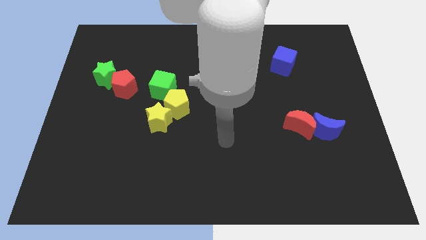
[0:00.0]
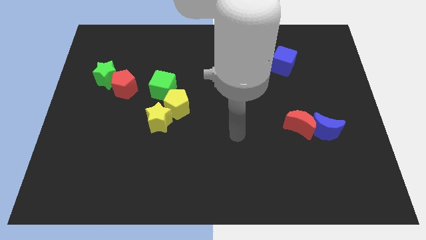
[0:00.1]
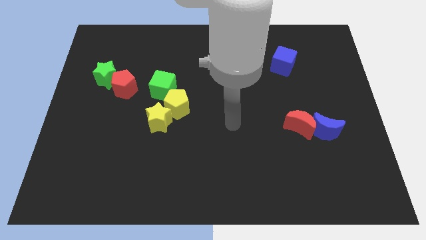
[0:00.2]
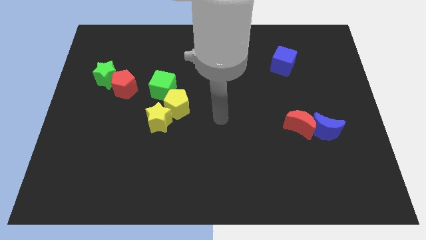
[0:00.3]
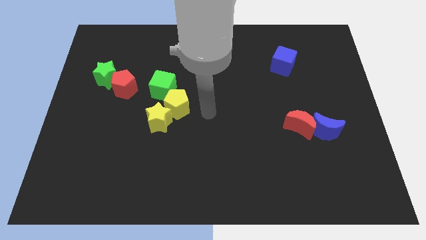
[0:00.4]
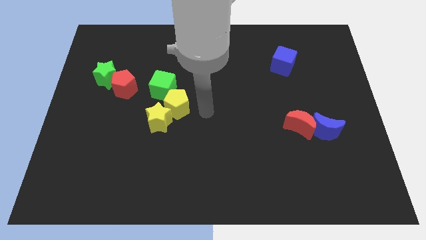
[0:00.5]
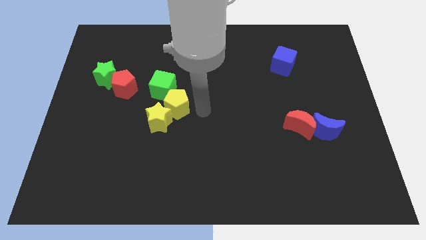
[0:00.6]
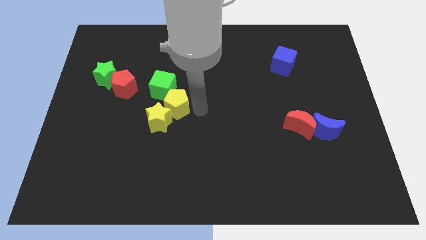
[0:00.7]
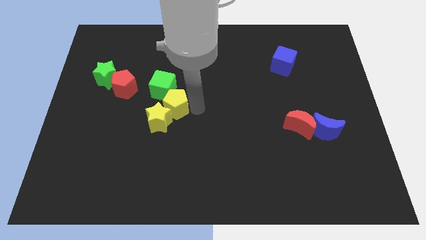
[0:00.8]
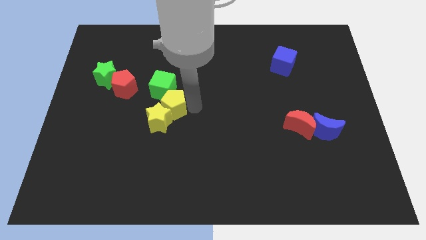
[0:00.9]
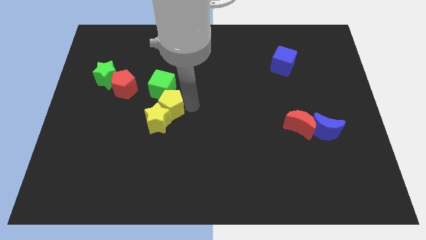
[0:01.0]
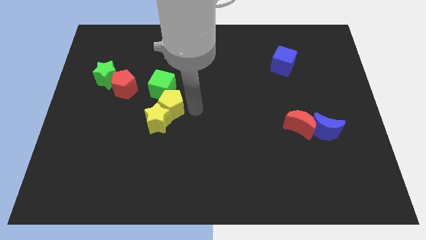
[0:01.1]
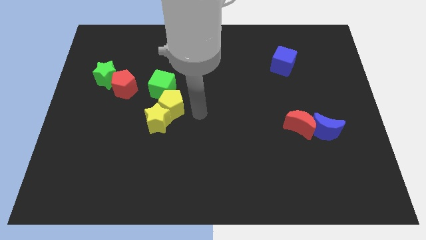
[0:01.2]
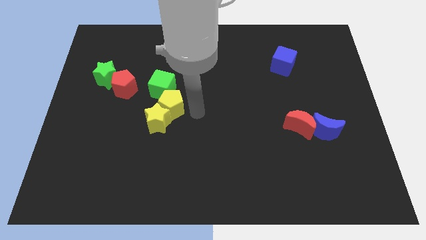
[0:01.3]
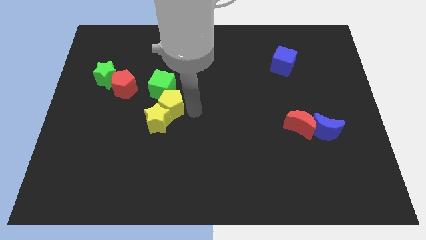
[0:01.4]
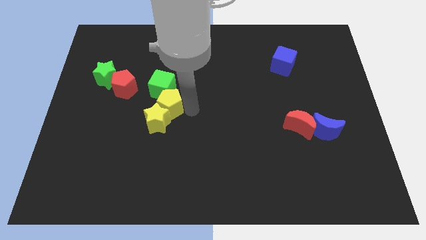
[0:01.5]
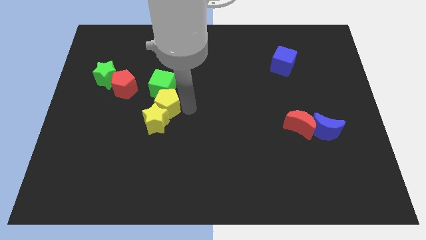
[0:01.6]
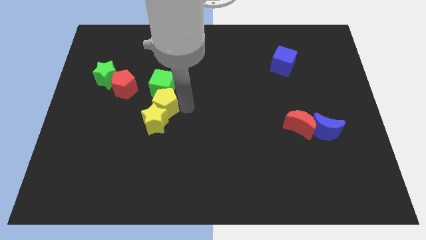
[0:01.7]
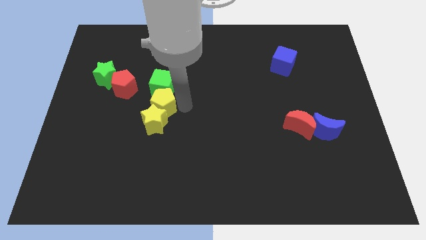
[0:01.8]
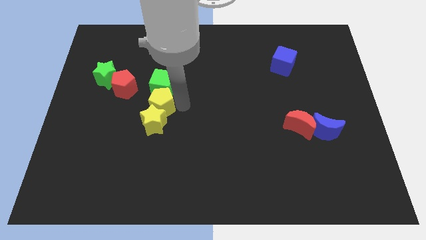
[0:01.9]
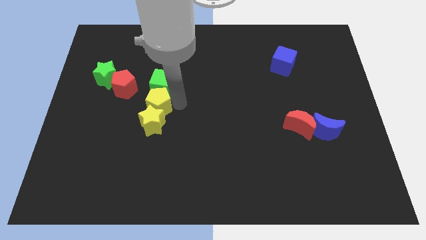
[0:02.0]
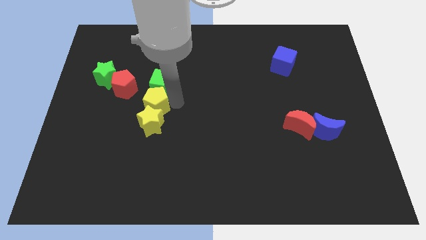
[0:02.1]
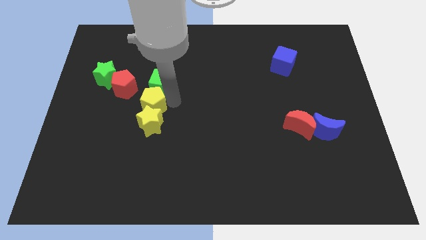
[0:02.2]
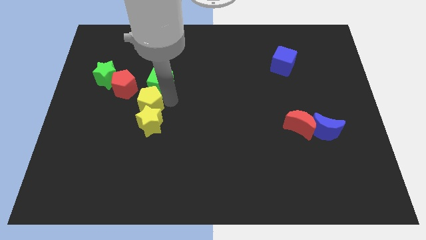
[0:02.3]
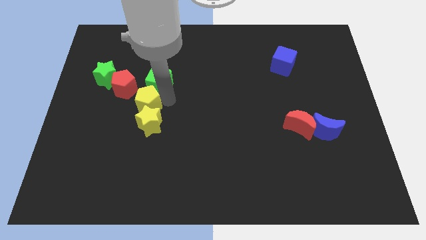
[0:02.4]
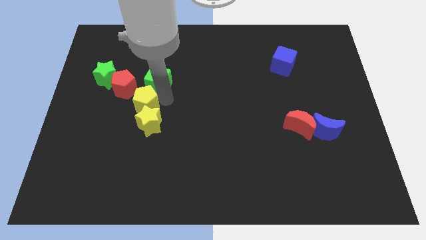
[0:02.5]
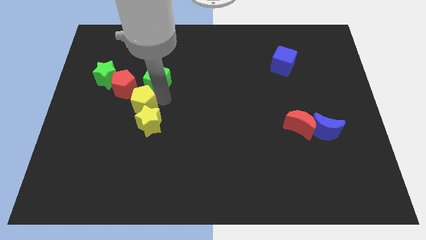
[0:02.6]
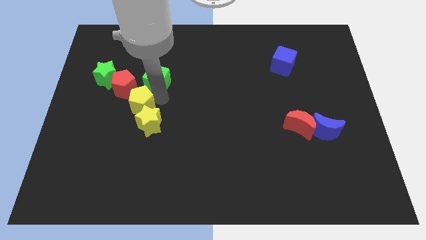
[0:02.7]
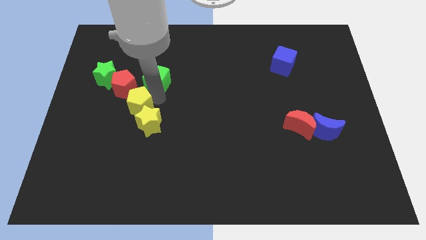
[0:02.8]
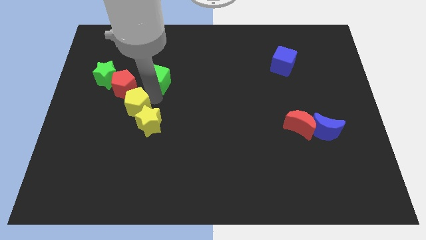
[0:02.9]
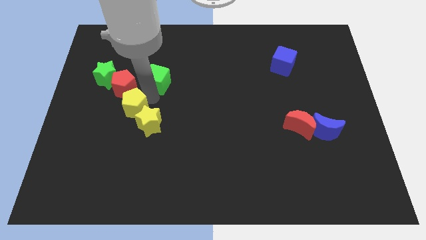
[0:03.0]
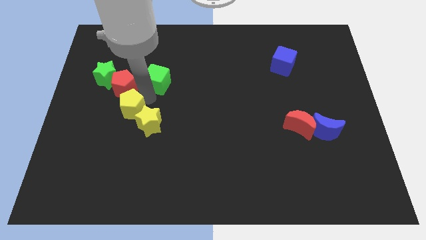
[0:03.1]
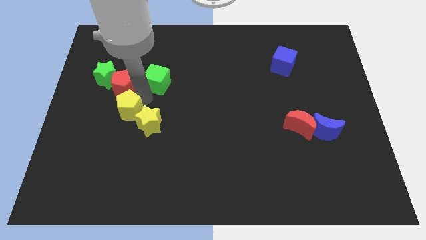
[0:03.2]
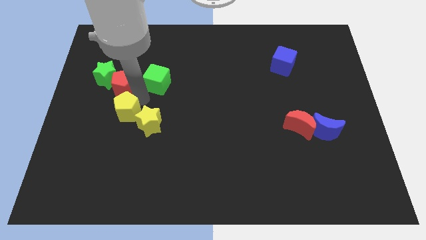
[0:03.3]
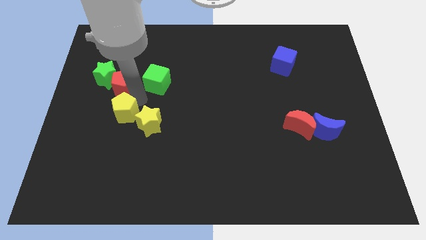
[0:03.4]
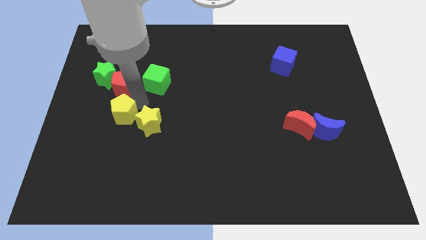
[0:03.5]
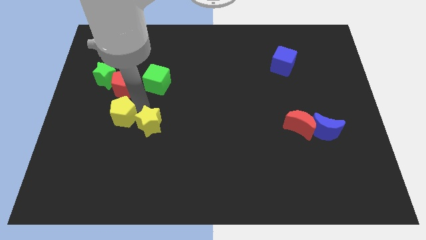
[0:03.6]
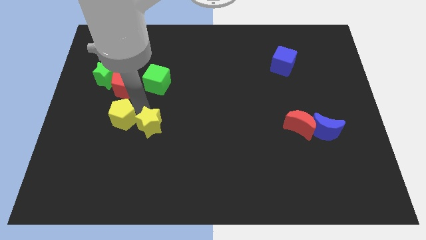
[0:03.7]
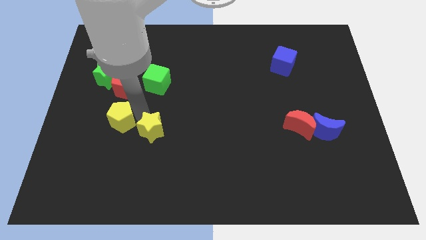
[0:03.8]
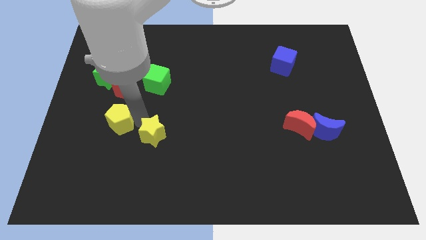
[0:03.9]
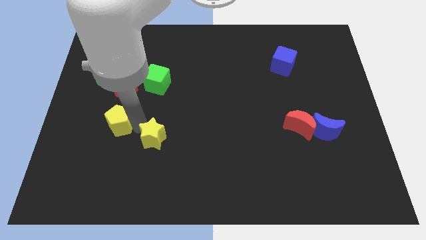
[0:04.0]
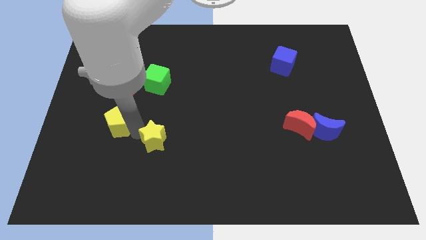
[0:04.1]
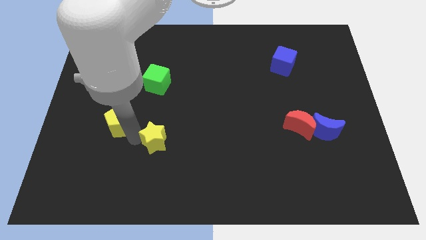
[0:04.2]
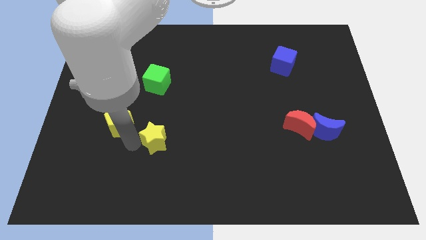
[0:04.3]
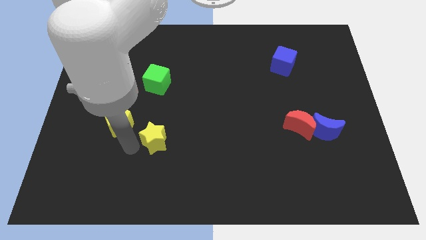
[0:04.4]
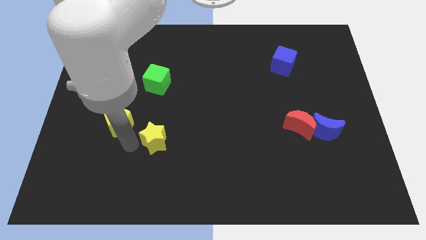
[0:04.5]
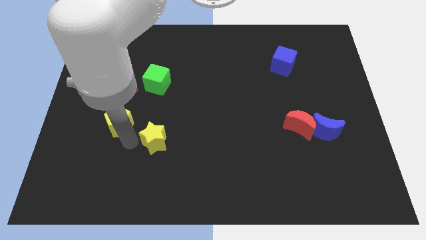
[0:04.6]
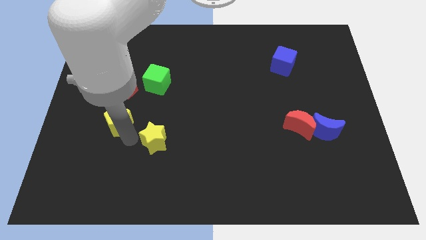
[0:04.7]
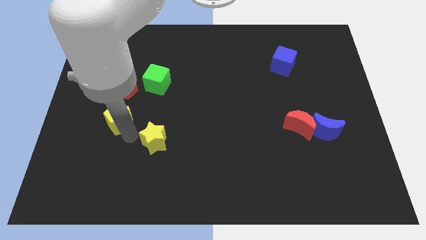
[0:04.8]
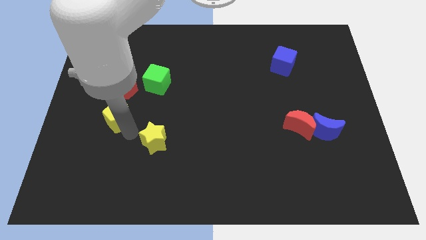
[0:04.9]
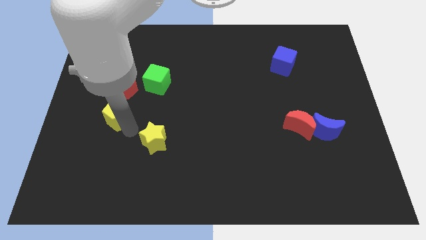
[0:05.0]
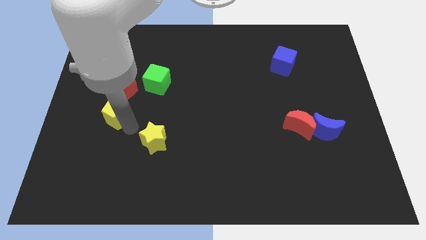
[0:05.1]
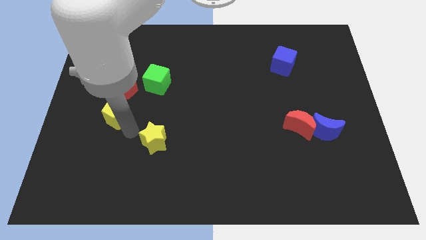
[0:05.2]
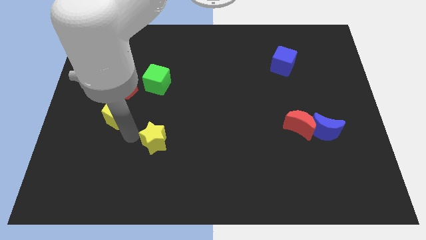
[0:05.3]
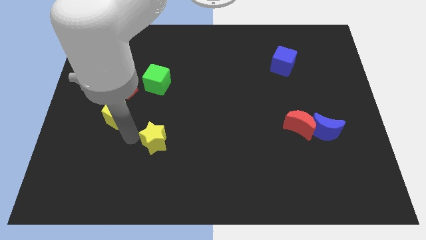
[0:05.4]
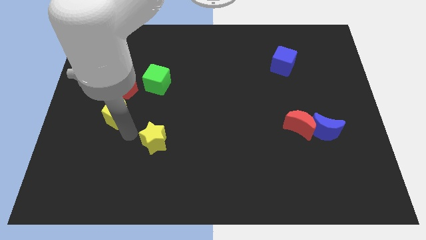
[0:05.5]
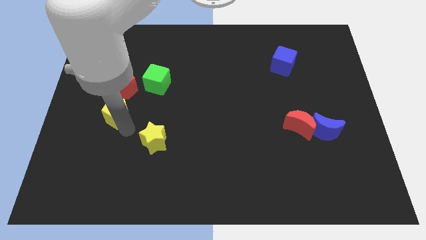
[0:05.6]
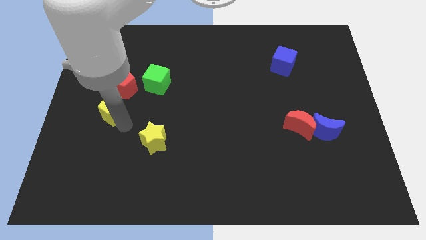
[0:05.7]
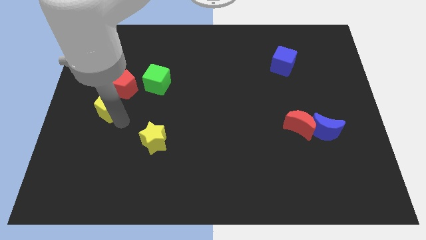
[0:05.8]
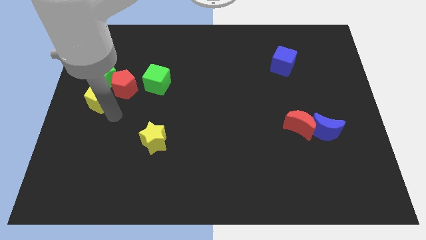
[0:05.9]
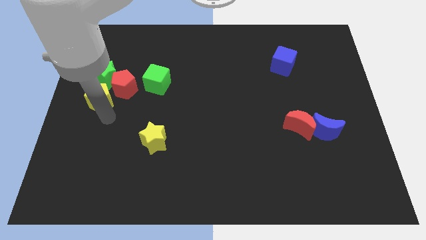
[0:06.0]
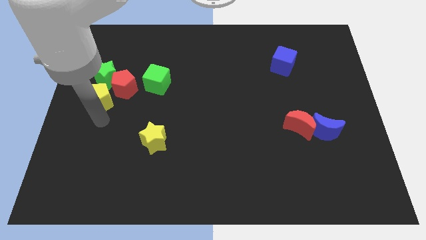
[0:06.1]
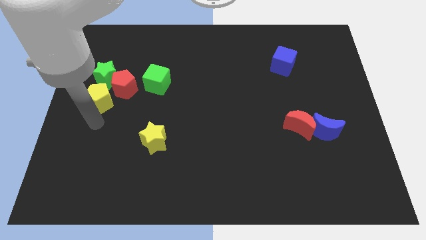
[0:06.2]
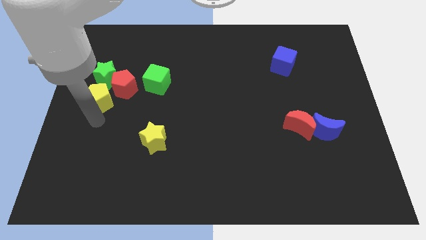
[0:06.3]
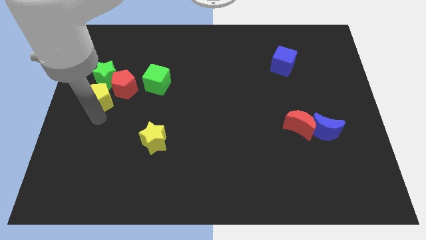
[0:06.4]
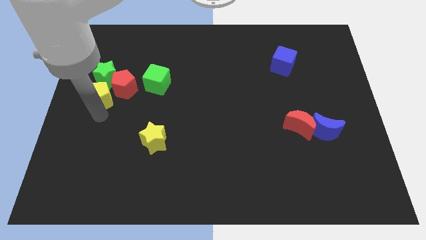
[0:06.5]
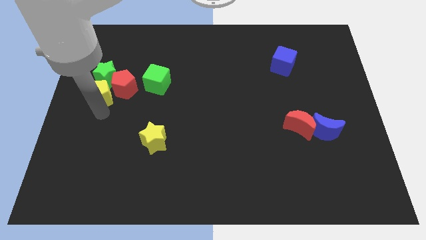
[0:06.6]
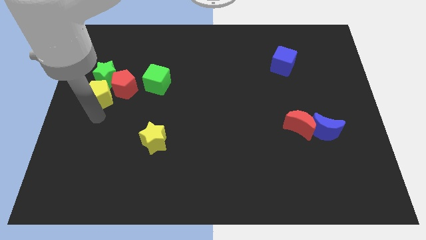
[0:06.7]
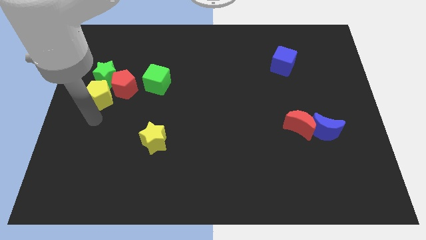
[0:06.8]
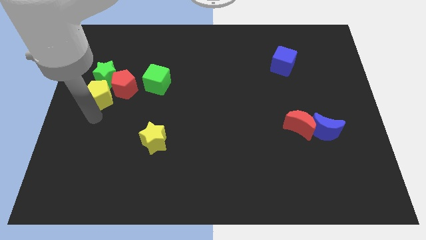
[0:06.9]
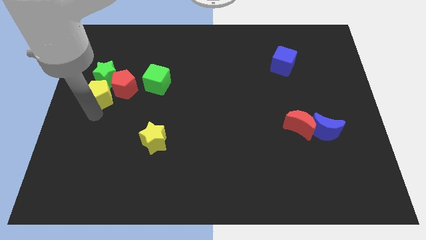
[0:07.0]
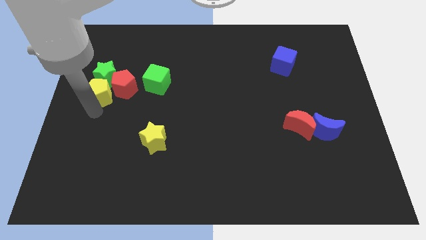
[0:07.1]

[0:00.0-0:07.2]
put the yellow pentagon close to the green star
